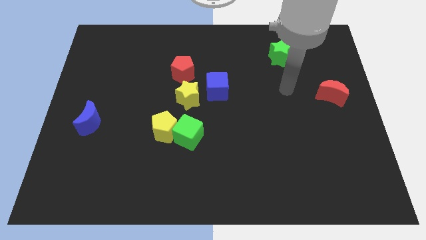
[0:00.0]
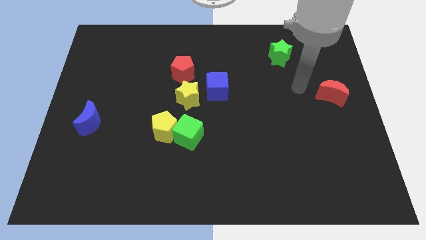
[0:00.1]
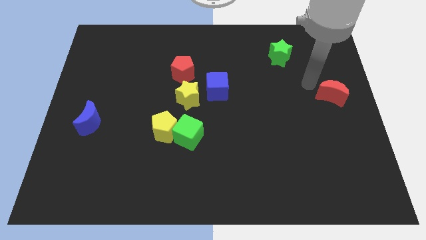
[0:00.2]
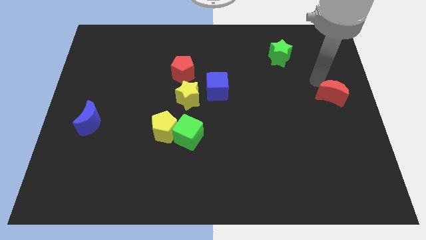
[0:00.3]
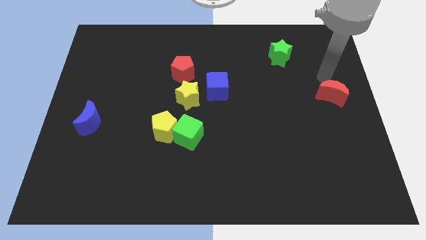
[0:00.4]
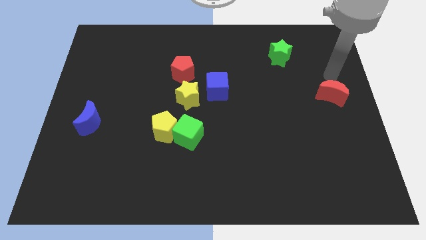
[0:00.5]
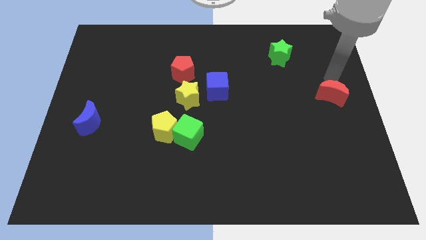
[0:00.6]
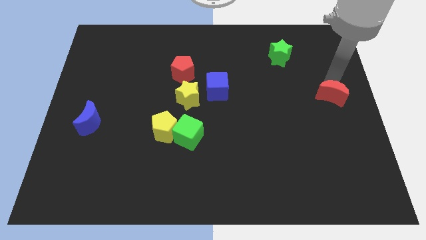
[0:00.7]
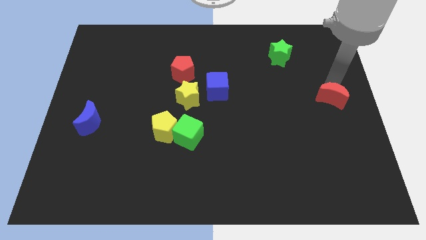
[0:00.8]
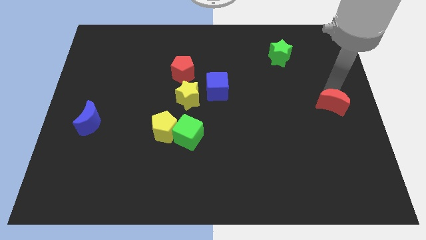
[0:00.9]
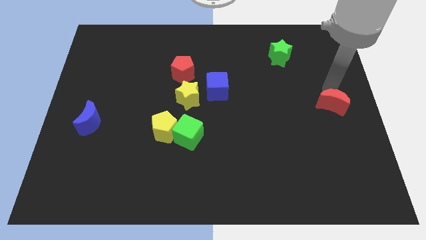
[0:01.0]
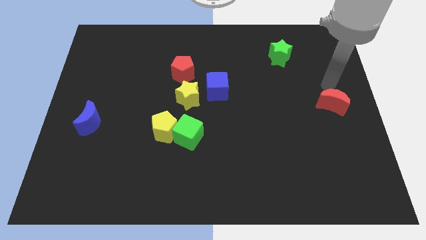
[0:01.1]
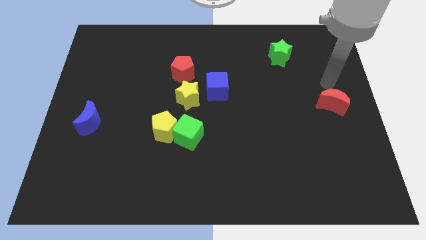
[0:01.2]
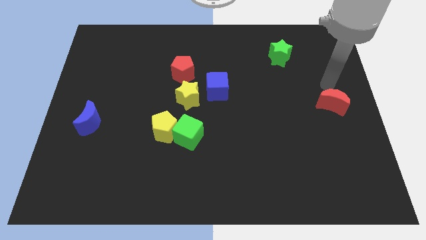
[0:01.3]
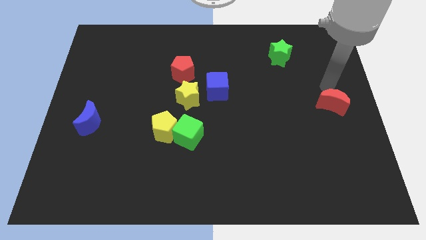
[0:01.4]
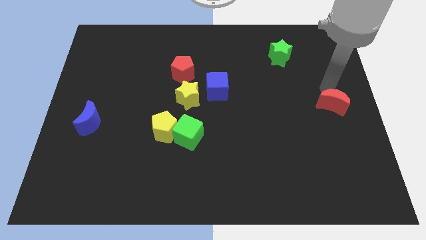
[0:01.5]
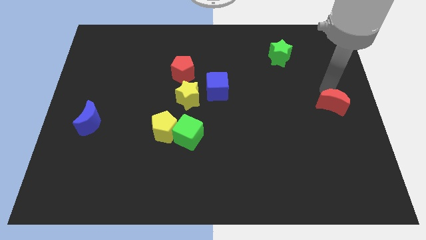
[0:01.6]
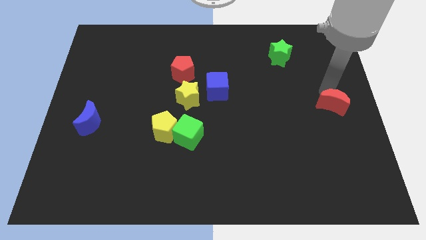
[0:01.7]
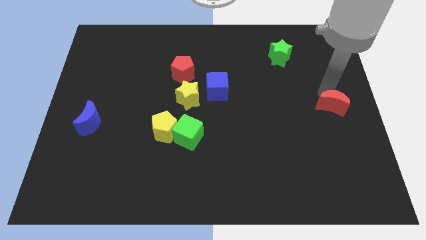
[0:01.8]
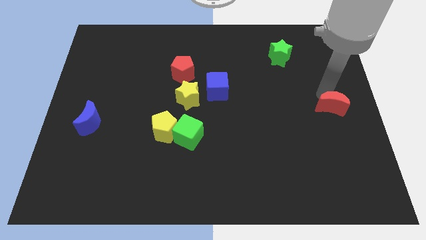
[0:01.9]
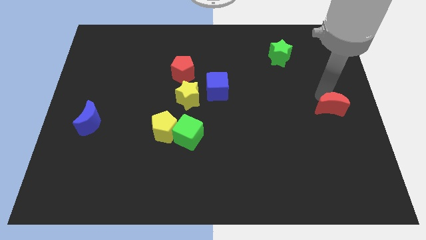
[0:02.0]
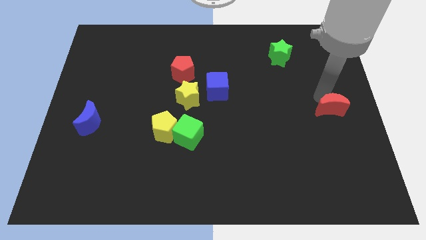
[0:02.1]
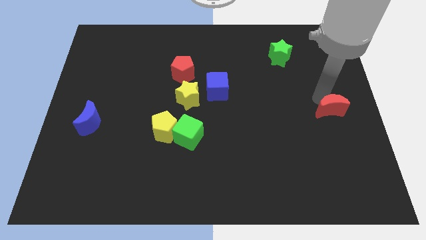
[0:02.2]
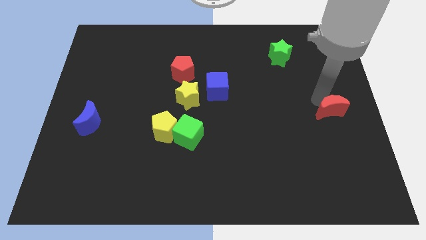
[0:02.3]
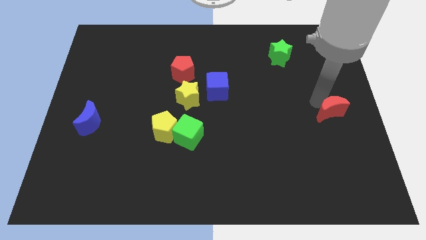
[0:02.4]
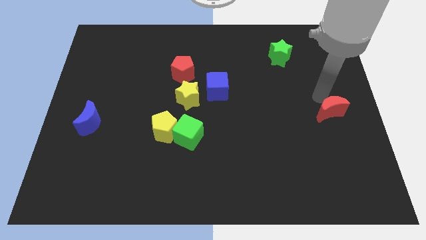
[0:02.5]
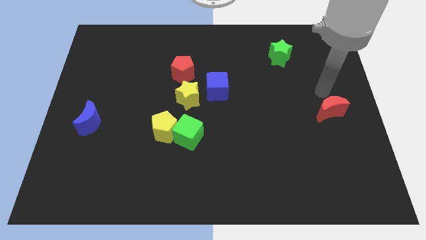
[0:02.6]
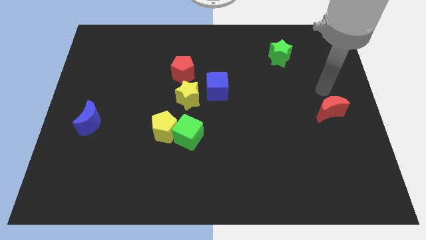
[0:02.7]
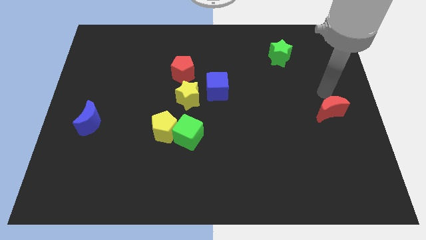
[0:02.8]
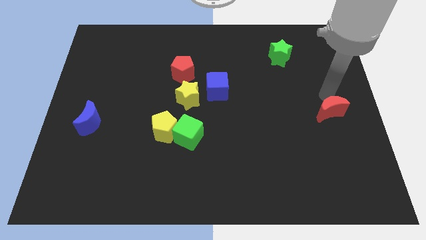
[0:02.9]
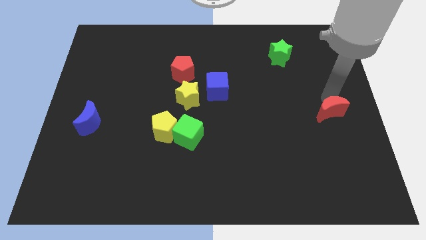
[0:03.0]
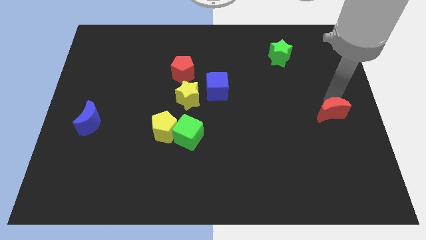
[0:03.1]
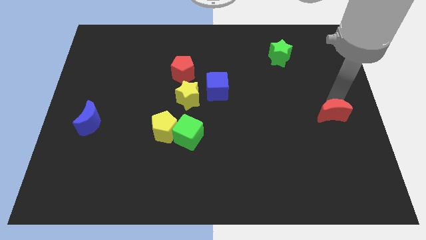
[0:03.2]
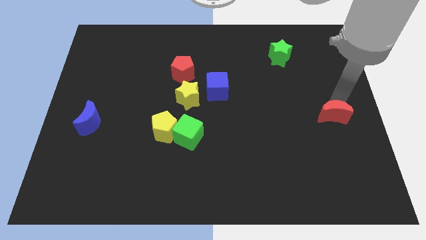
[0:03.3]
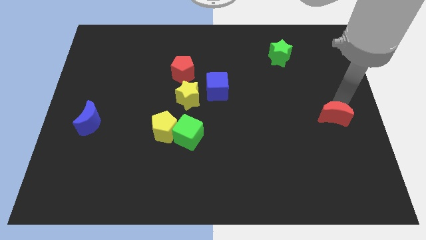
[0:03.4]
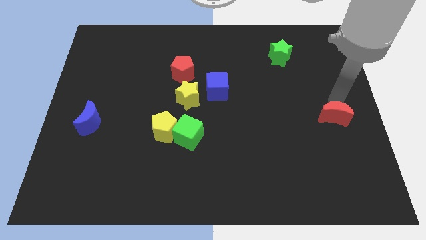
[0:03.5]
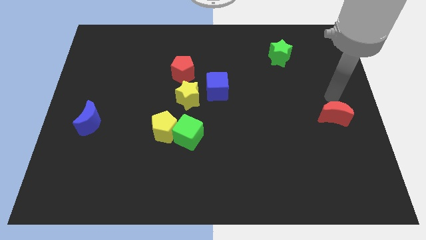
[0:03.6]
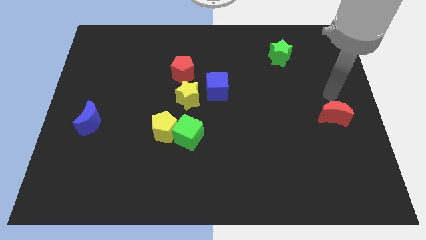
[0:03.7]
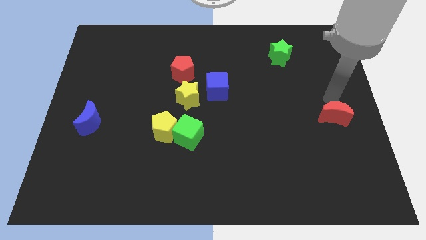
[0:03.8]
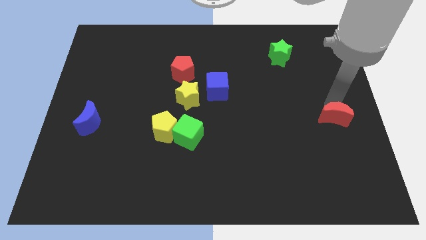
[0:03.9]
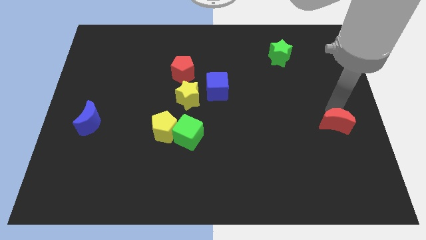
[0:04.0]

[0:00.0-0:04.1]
slightly push the red moon downwards

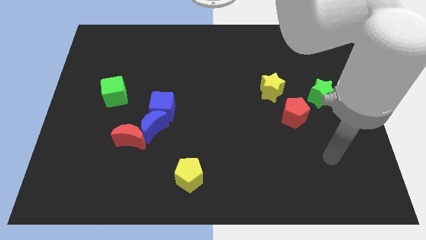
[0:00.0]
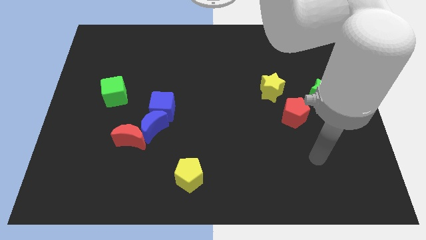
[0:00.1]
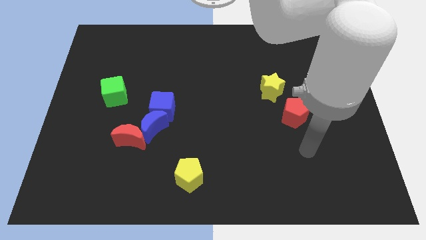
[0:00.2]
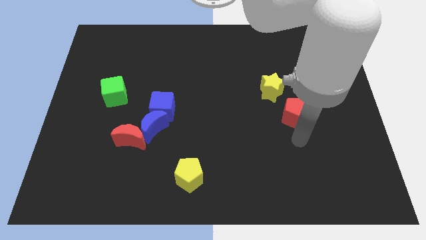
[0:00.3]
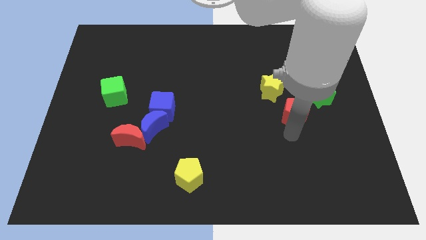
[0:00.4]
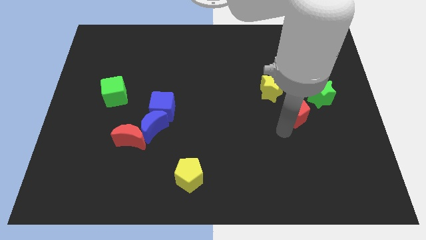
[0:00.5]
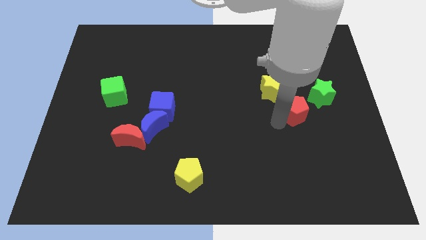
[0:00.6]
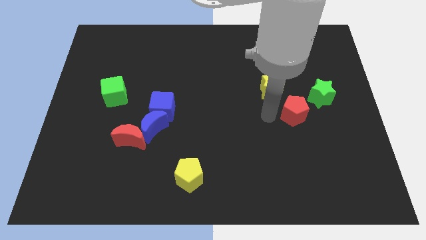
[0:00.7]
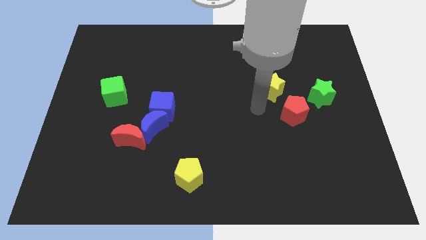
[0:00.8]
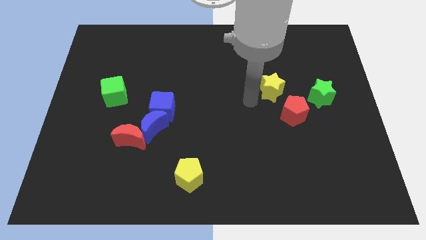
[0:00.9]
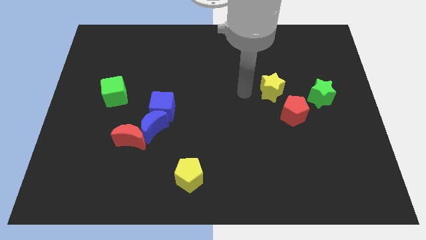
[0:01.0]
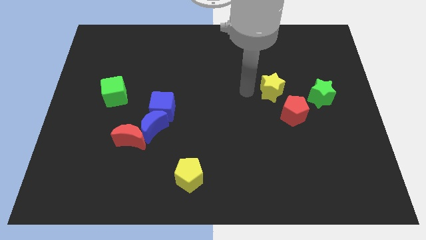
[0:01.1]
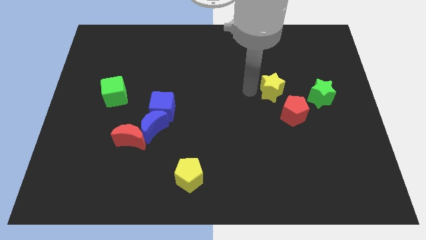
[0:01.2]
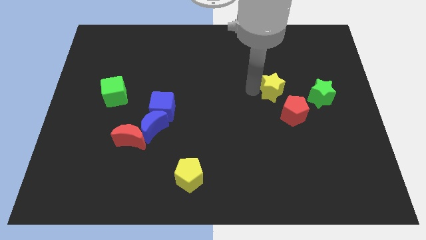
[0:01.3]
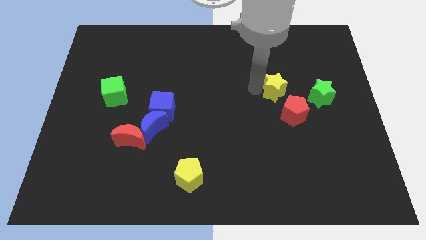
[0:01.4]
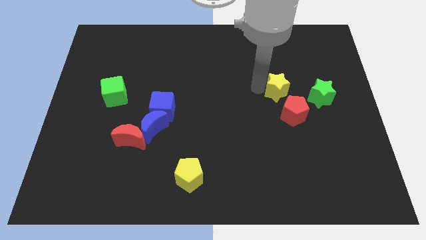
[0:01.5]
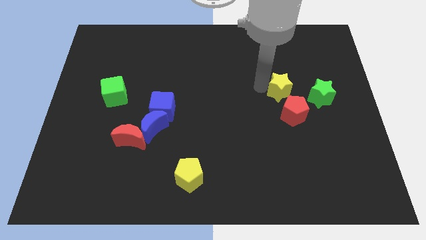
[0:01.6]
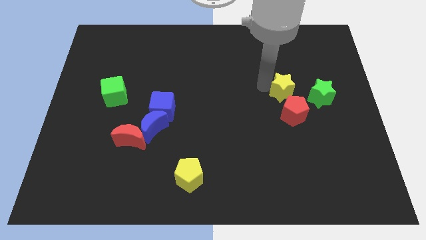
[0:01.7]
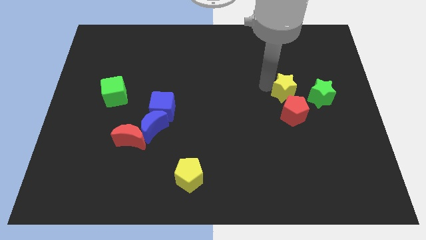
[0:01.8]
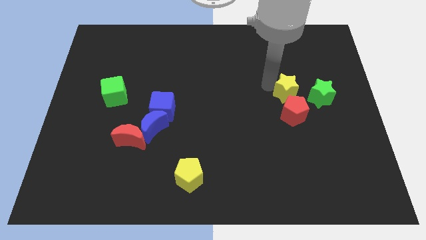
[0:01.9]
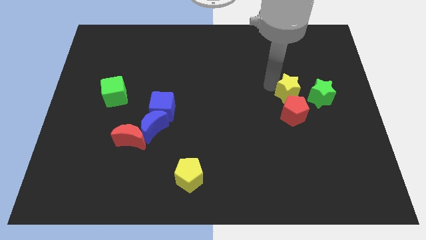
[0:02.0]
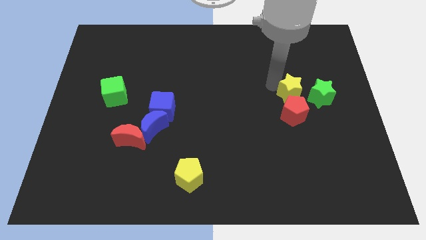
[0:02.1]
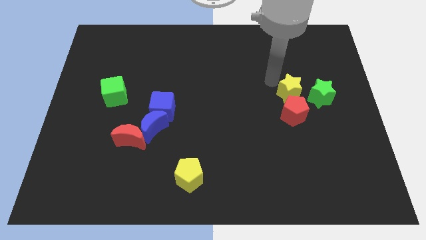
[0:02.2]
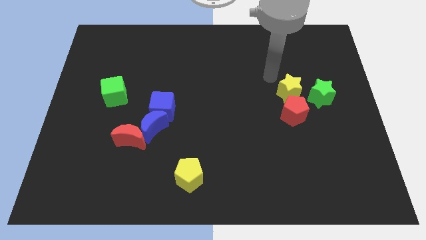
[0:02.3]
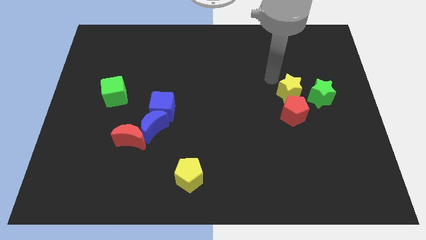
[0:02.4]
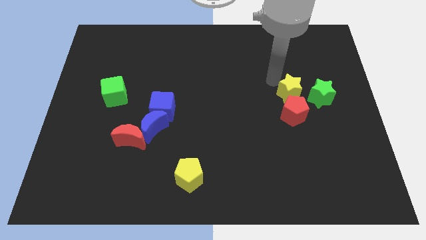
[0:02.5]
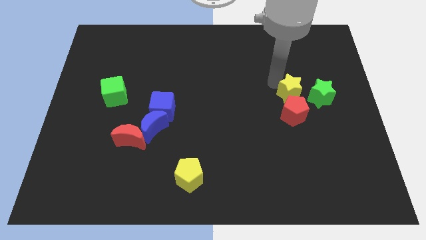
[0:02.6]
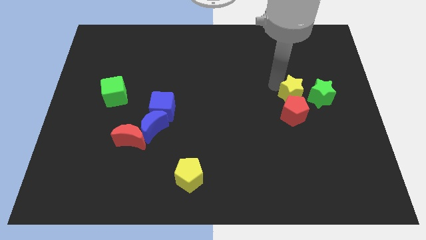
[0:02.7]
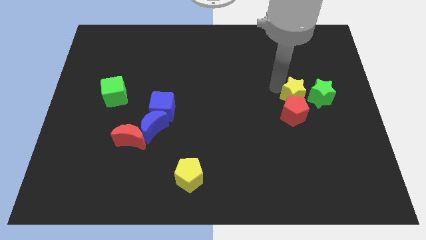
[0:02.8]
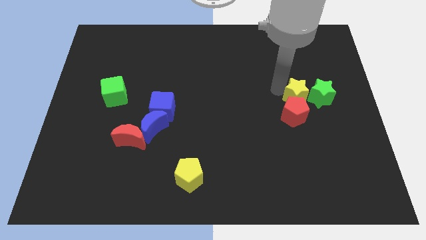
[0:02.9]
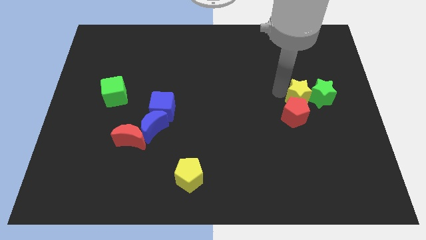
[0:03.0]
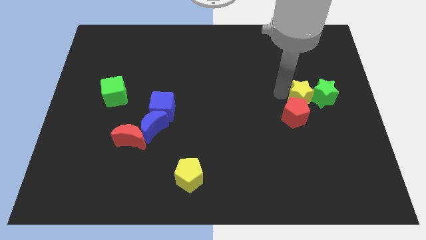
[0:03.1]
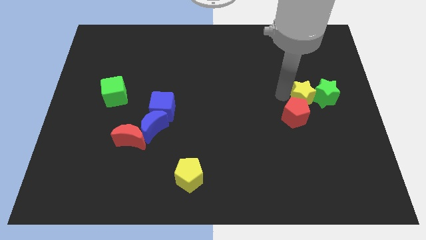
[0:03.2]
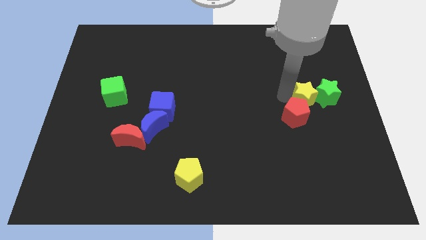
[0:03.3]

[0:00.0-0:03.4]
move the yellow star diagonally downwards and right a little bit

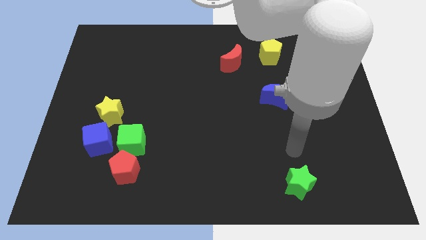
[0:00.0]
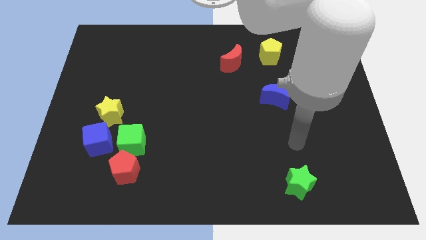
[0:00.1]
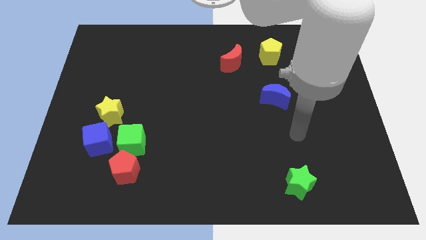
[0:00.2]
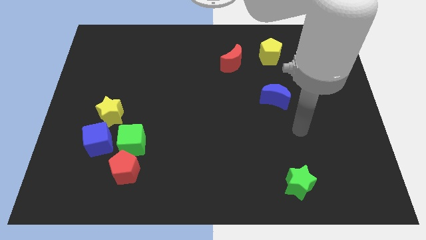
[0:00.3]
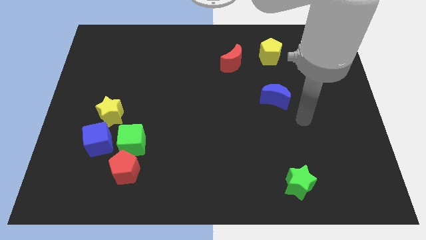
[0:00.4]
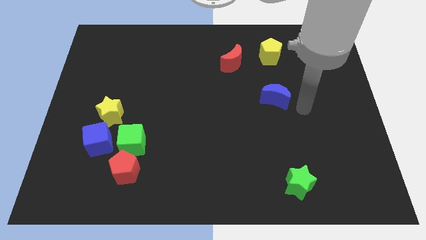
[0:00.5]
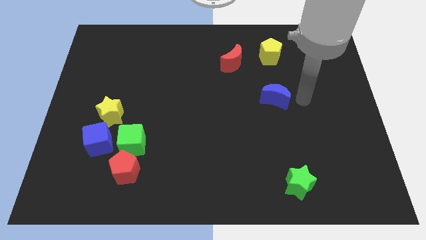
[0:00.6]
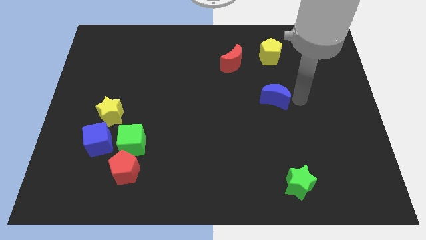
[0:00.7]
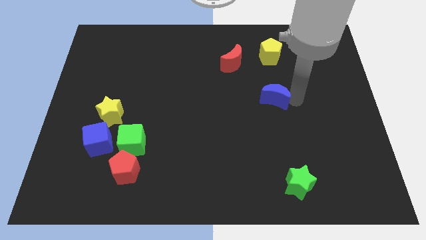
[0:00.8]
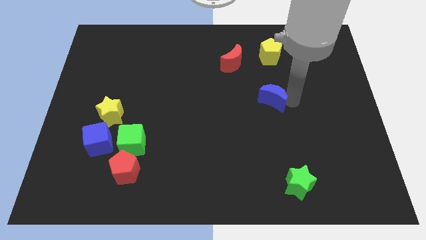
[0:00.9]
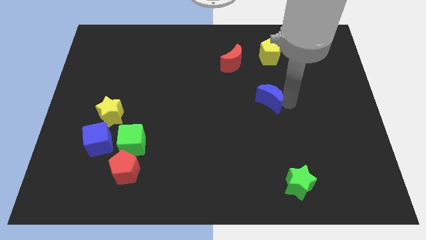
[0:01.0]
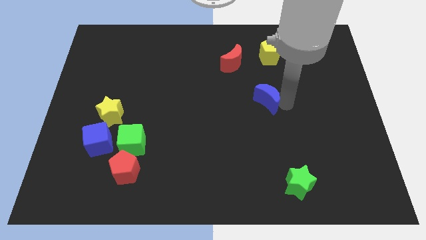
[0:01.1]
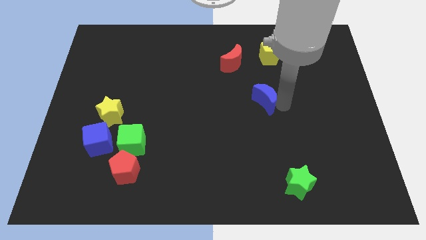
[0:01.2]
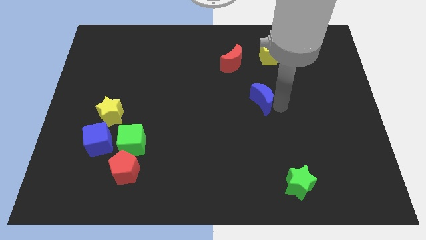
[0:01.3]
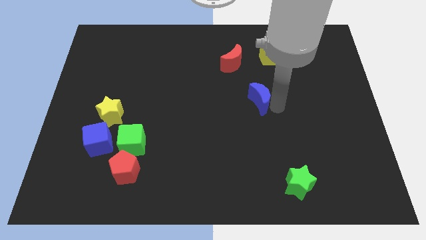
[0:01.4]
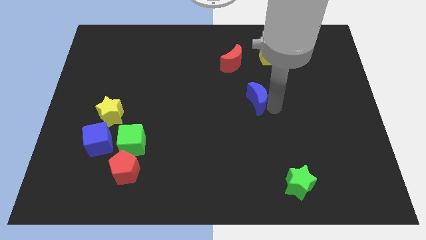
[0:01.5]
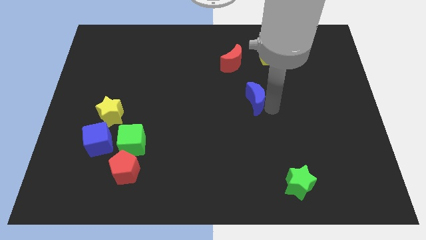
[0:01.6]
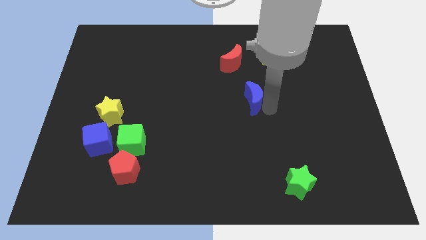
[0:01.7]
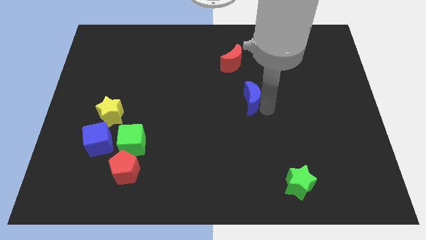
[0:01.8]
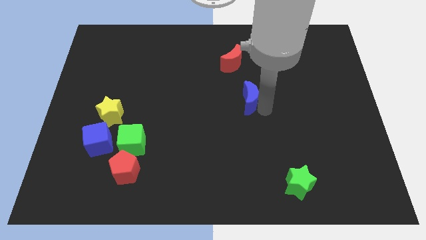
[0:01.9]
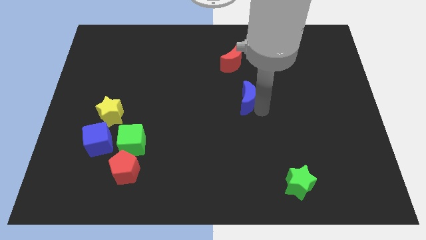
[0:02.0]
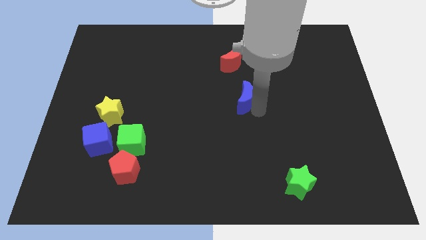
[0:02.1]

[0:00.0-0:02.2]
slide the blue moon left slightly
